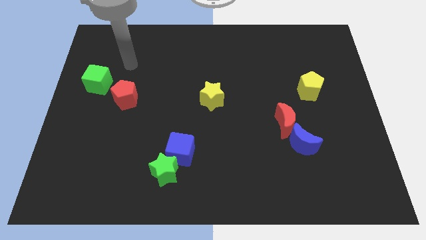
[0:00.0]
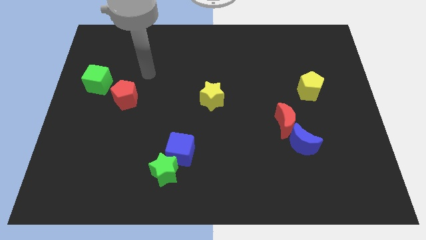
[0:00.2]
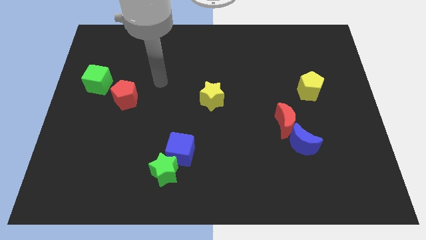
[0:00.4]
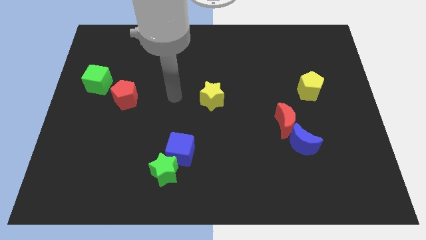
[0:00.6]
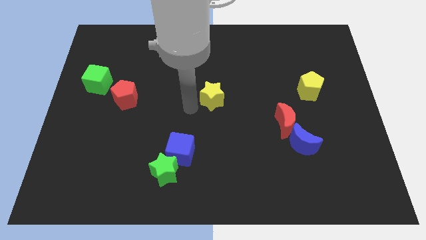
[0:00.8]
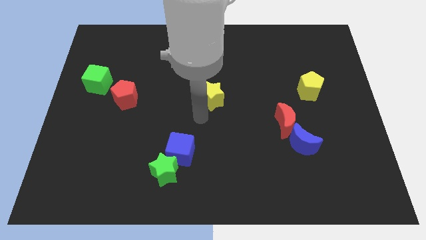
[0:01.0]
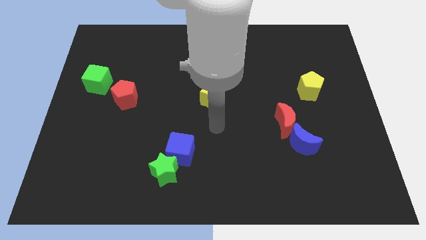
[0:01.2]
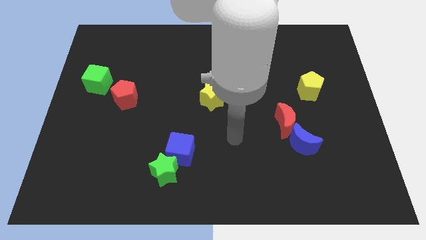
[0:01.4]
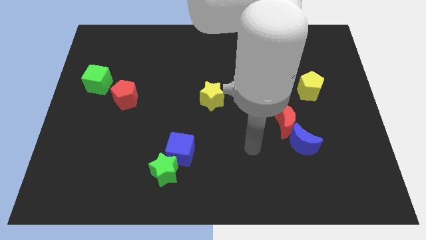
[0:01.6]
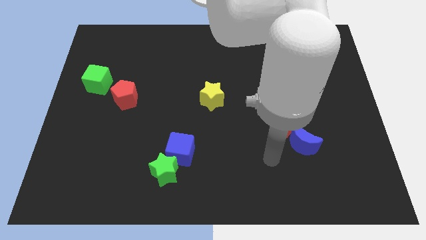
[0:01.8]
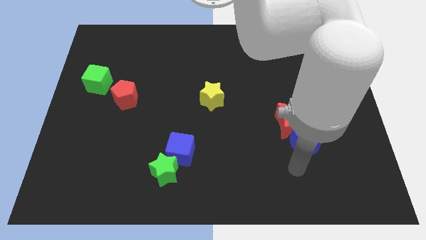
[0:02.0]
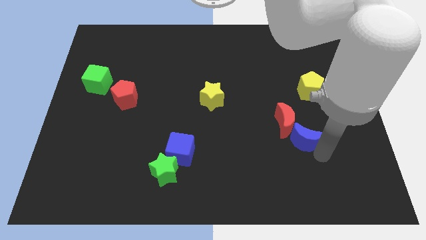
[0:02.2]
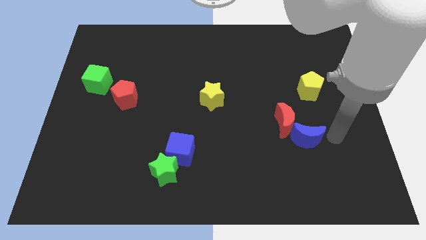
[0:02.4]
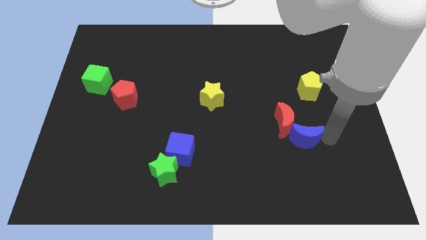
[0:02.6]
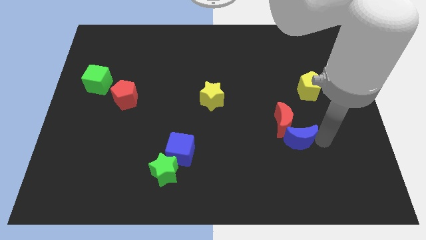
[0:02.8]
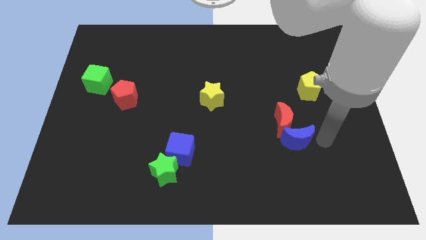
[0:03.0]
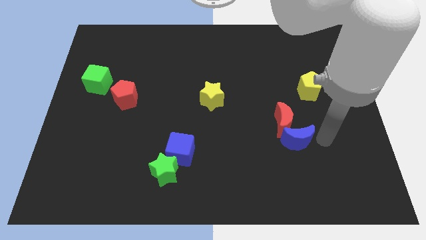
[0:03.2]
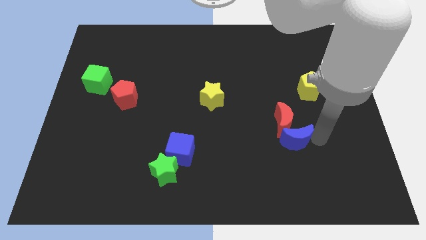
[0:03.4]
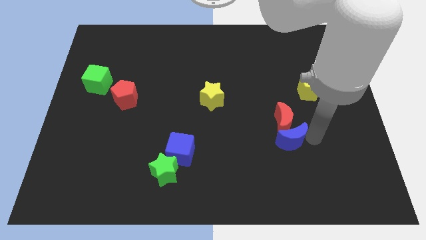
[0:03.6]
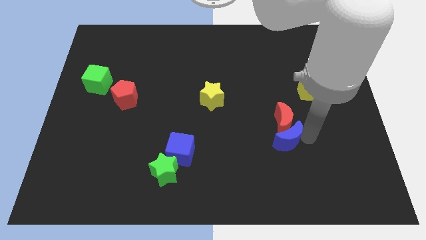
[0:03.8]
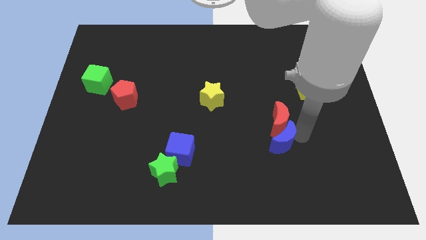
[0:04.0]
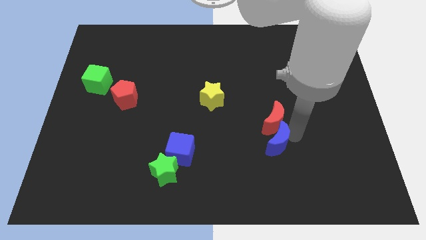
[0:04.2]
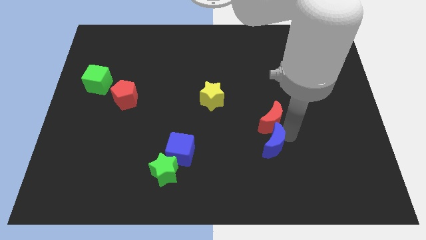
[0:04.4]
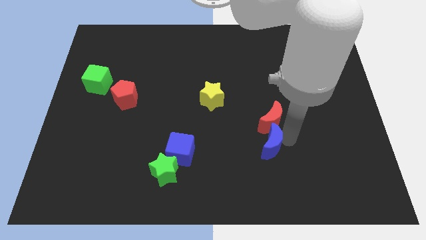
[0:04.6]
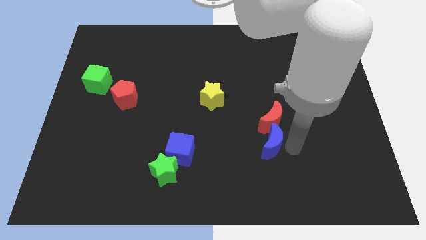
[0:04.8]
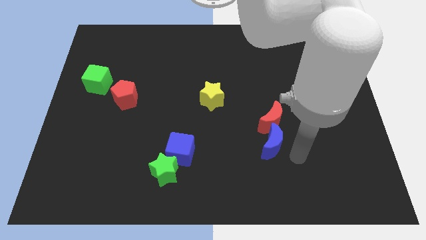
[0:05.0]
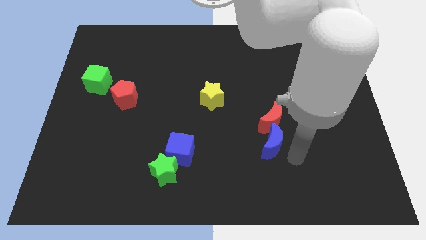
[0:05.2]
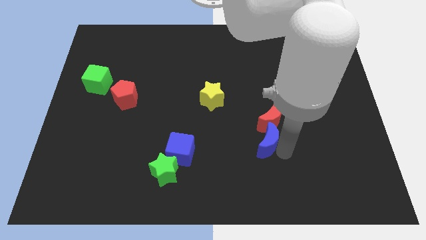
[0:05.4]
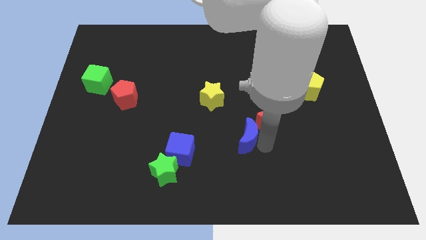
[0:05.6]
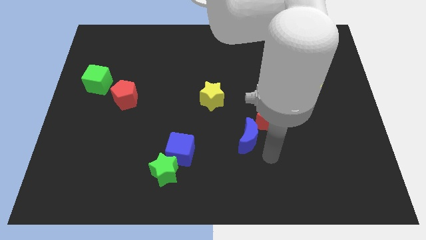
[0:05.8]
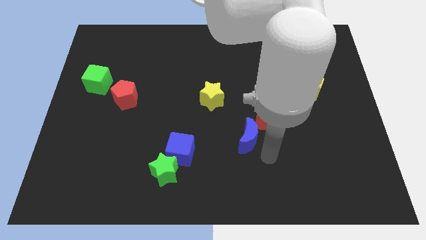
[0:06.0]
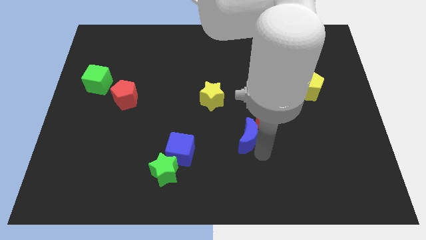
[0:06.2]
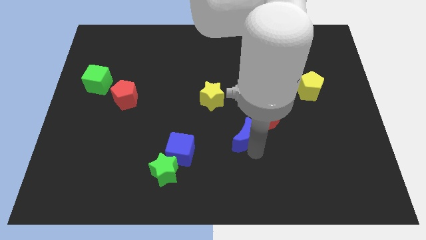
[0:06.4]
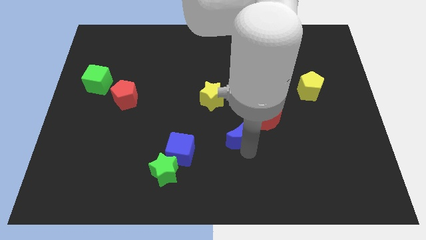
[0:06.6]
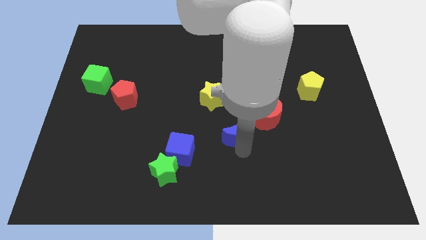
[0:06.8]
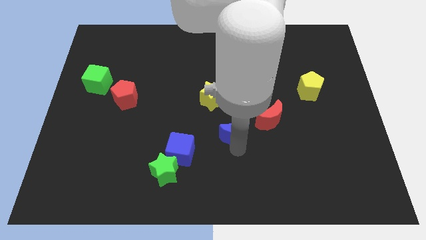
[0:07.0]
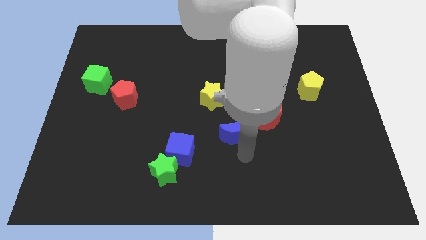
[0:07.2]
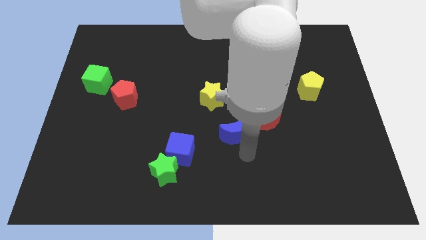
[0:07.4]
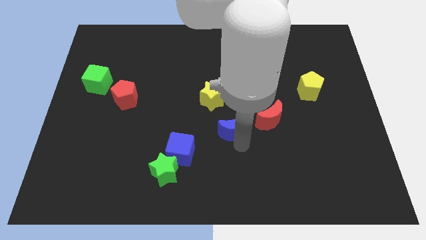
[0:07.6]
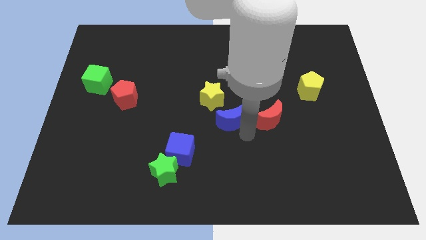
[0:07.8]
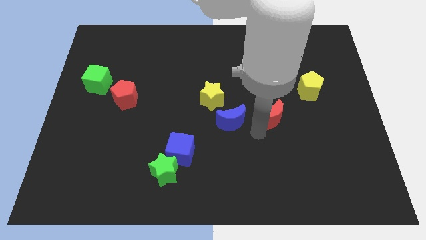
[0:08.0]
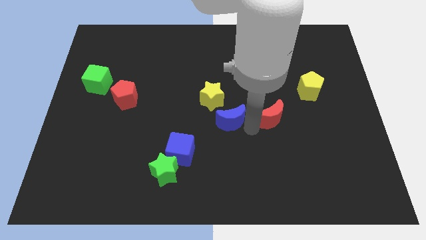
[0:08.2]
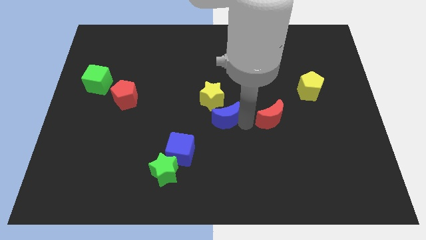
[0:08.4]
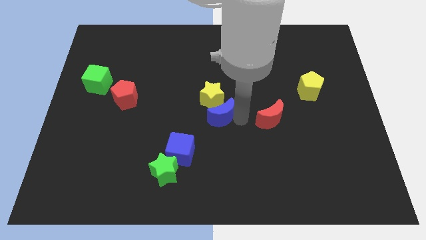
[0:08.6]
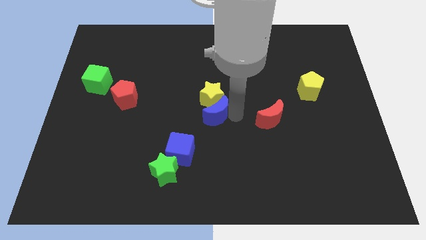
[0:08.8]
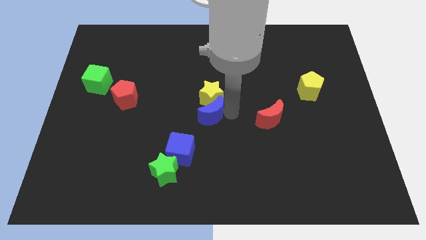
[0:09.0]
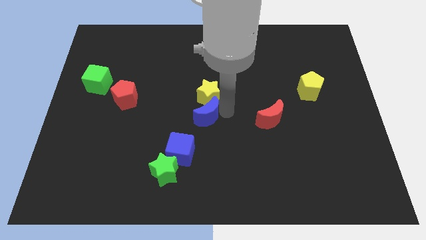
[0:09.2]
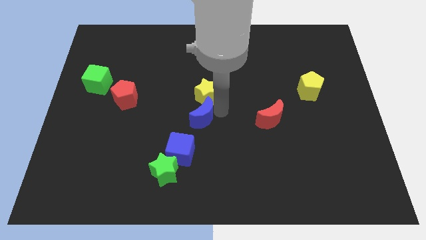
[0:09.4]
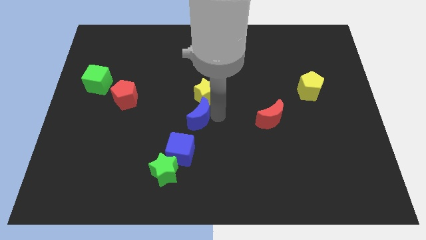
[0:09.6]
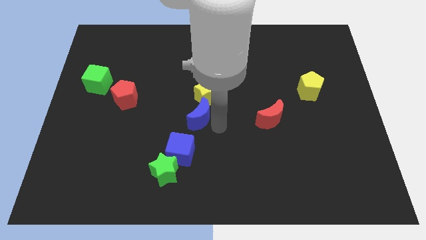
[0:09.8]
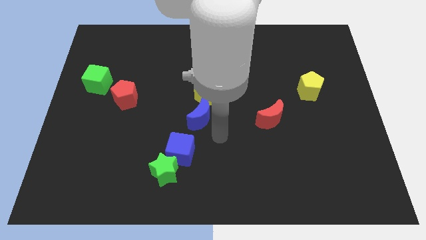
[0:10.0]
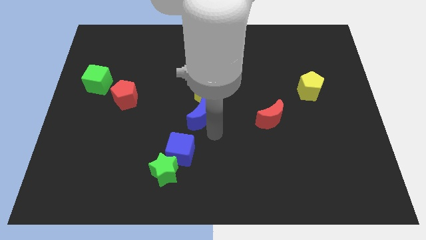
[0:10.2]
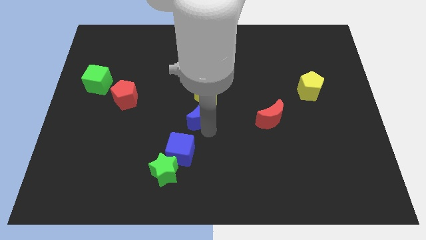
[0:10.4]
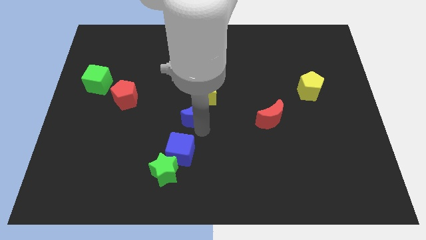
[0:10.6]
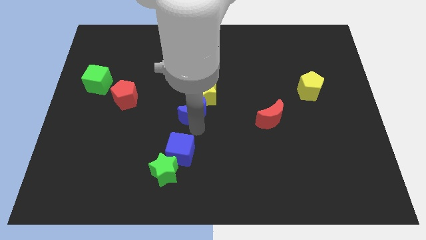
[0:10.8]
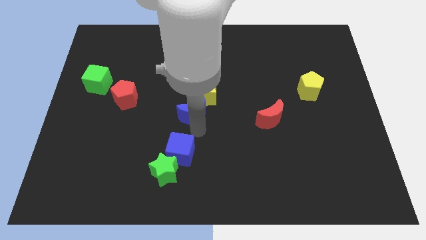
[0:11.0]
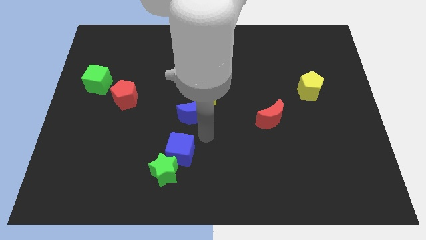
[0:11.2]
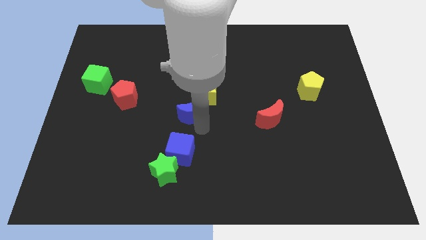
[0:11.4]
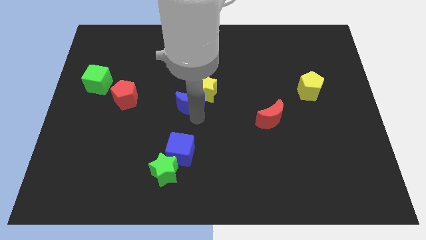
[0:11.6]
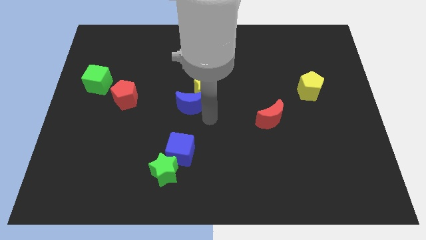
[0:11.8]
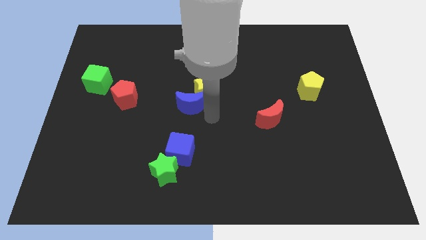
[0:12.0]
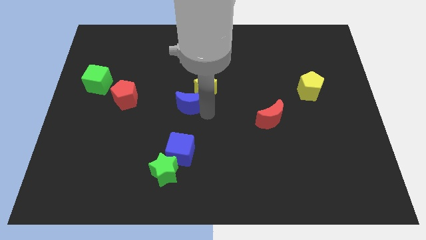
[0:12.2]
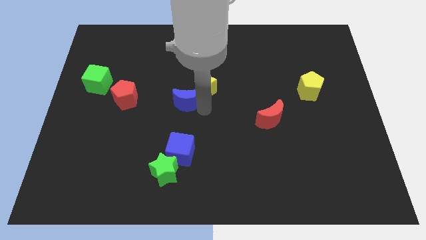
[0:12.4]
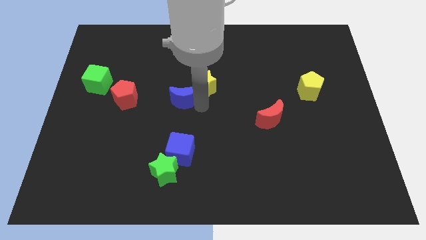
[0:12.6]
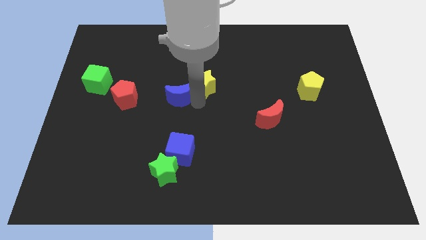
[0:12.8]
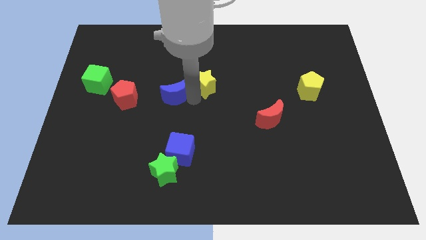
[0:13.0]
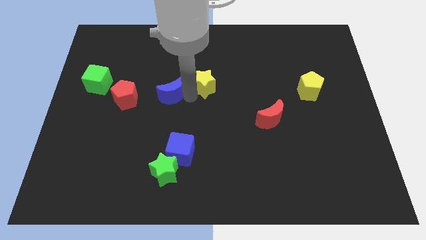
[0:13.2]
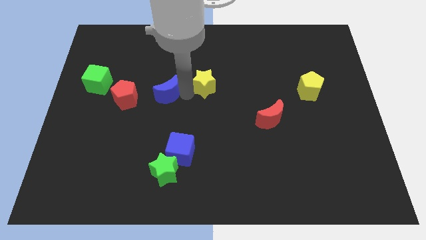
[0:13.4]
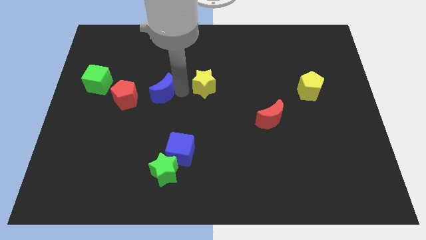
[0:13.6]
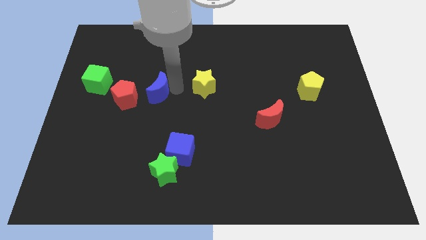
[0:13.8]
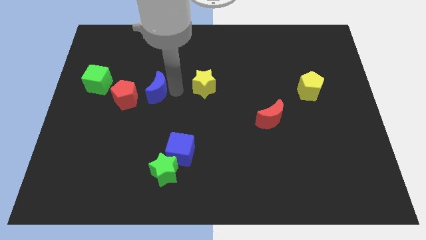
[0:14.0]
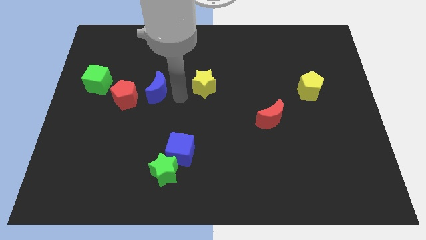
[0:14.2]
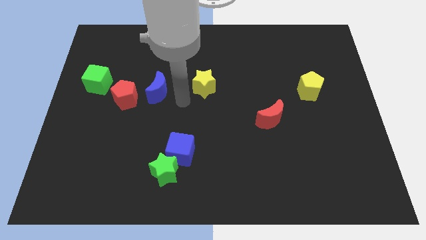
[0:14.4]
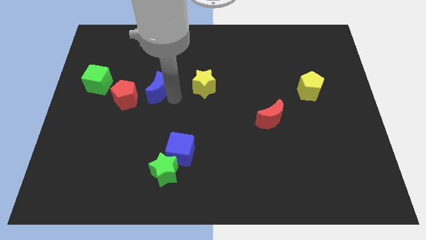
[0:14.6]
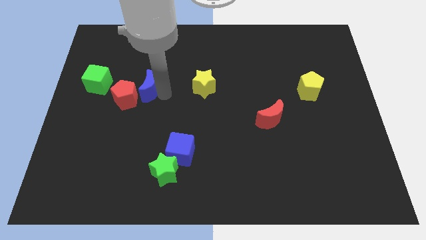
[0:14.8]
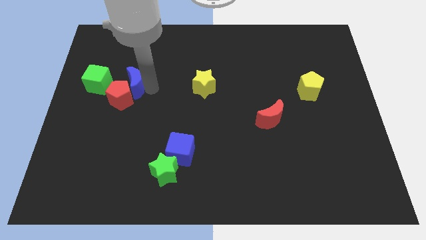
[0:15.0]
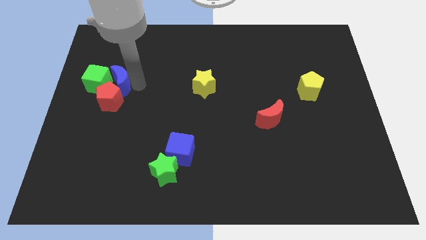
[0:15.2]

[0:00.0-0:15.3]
put the blue moon close to the green cube
